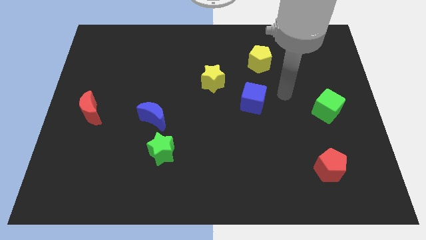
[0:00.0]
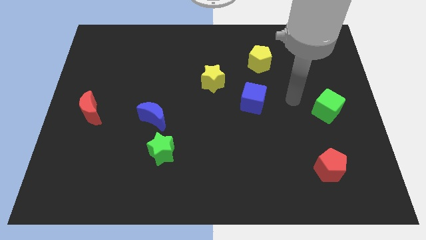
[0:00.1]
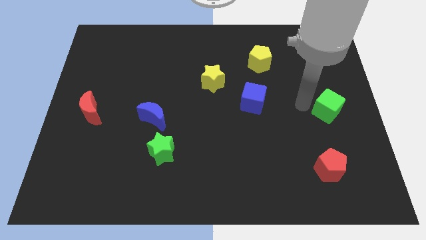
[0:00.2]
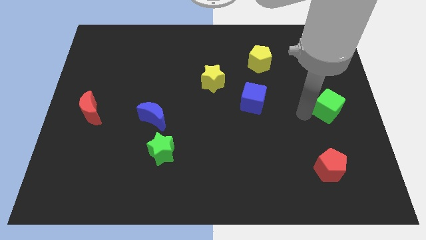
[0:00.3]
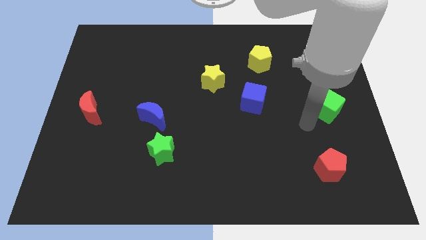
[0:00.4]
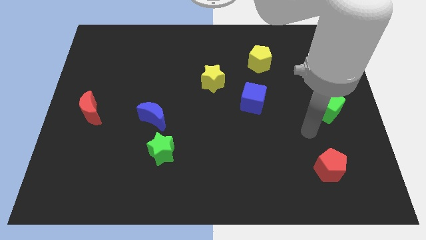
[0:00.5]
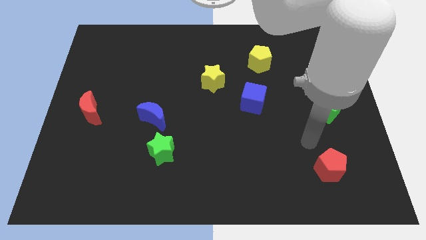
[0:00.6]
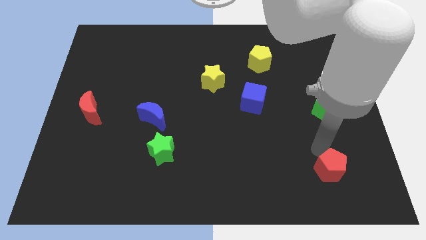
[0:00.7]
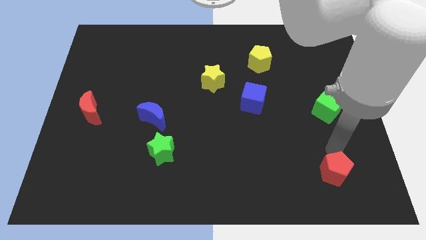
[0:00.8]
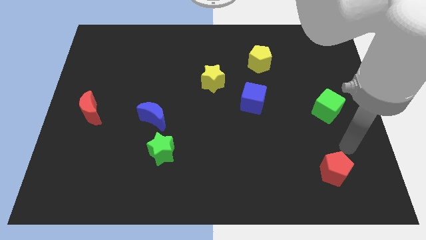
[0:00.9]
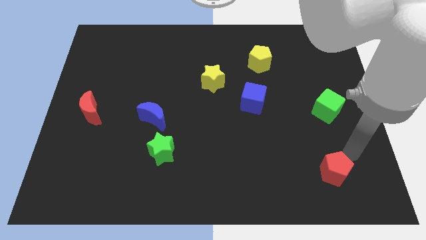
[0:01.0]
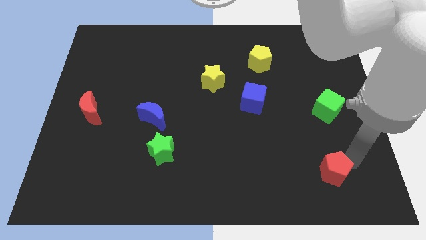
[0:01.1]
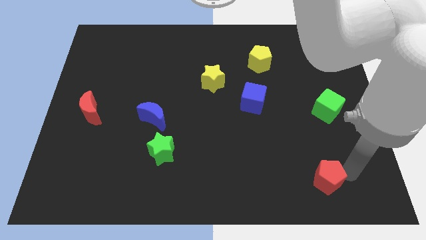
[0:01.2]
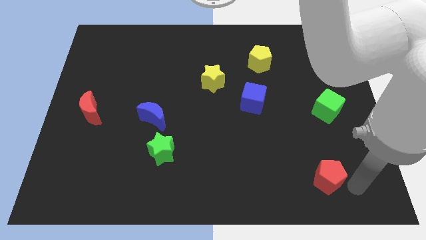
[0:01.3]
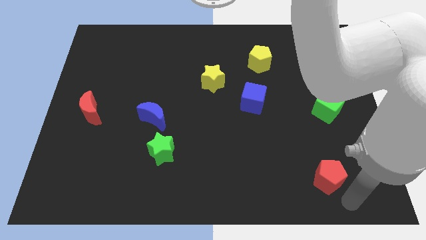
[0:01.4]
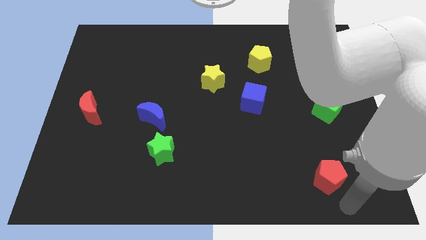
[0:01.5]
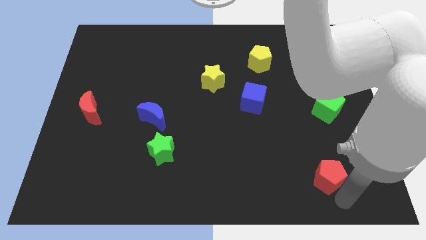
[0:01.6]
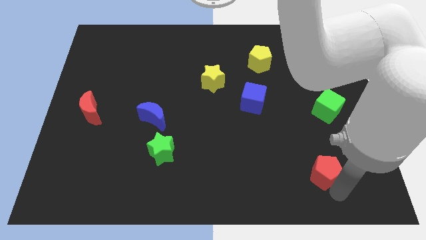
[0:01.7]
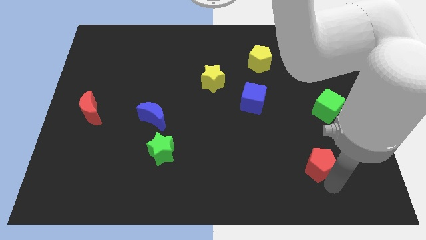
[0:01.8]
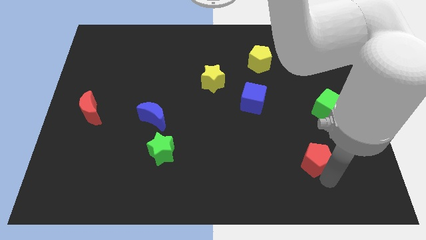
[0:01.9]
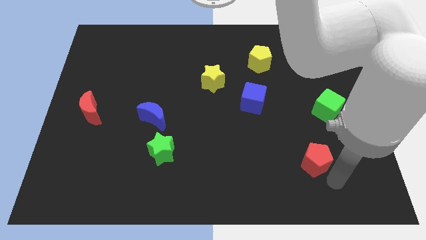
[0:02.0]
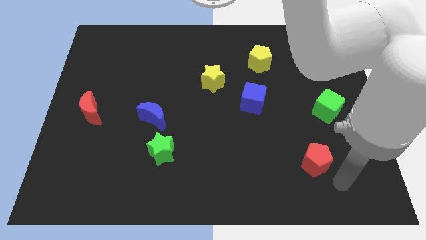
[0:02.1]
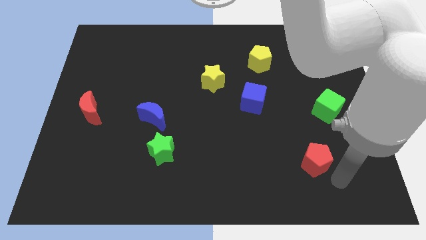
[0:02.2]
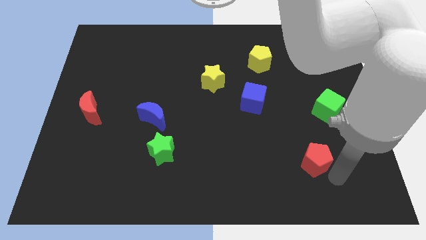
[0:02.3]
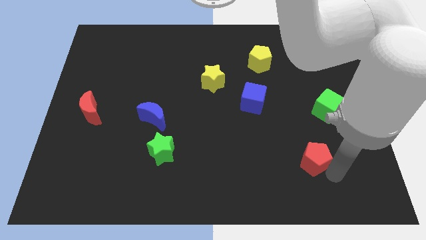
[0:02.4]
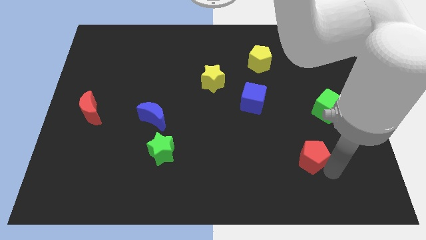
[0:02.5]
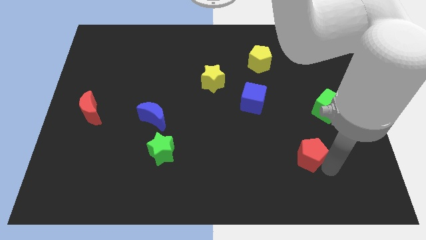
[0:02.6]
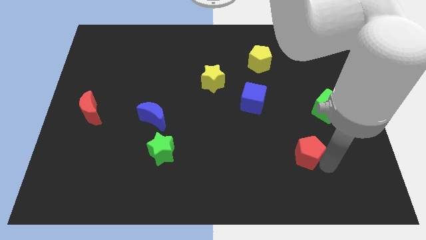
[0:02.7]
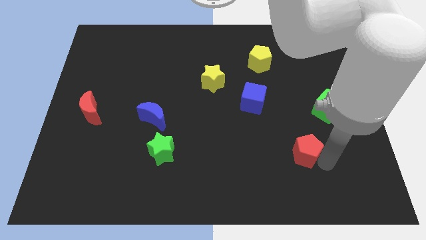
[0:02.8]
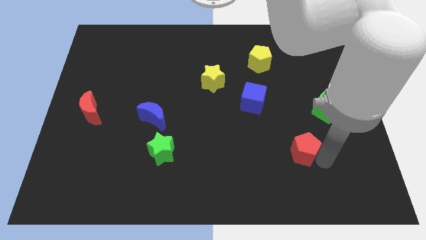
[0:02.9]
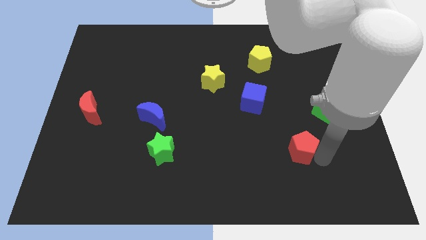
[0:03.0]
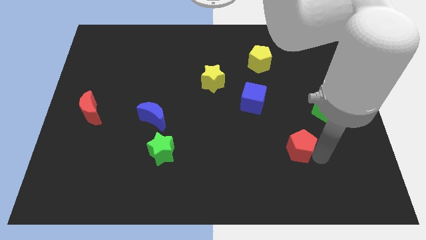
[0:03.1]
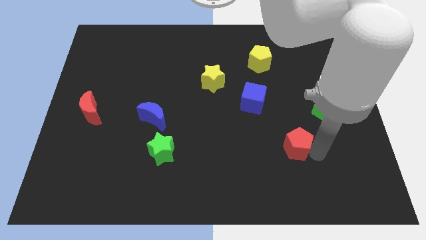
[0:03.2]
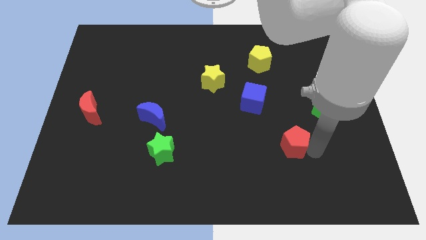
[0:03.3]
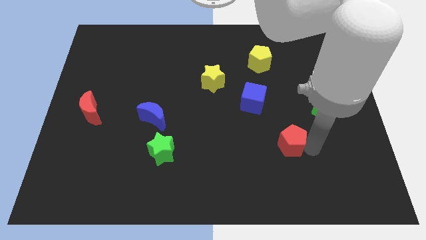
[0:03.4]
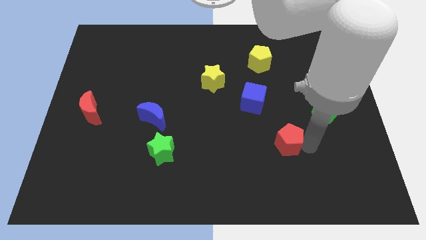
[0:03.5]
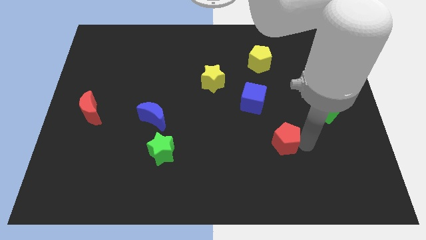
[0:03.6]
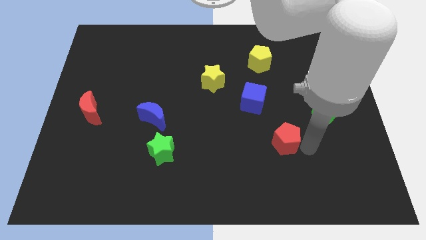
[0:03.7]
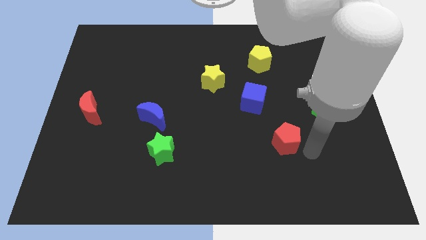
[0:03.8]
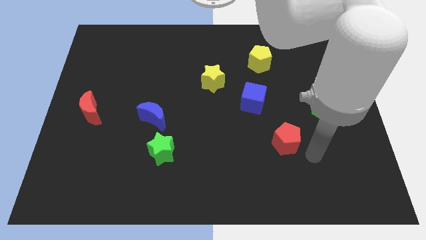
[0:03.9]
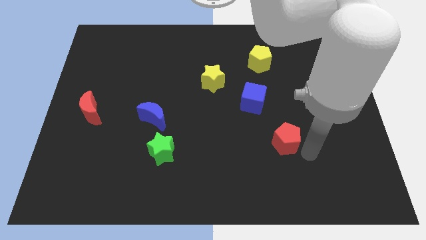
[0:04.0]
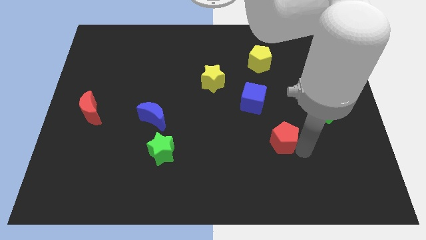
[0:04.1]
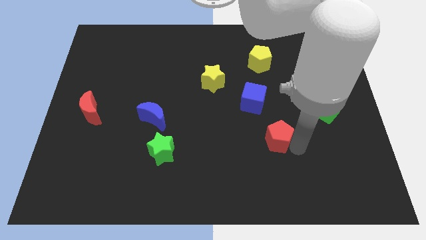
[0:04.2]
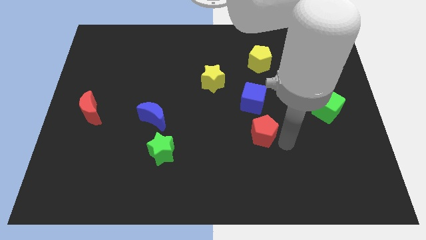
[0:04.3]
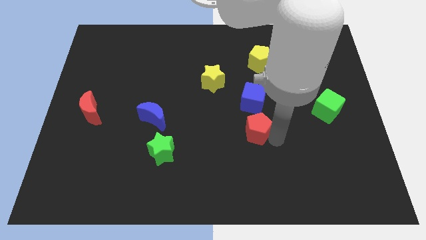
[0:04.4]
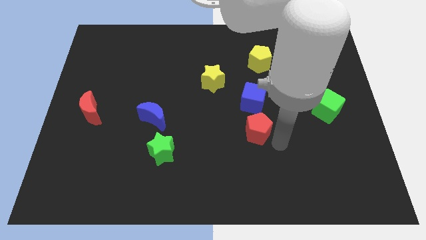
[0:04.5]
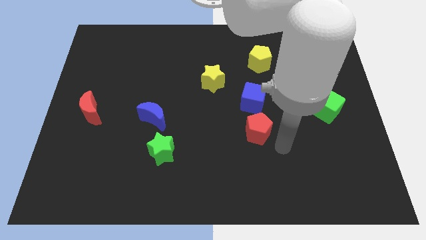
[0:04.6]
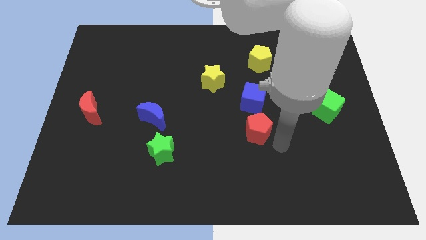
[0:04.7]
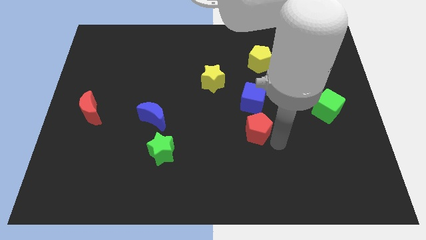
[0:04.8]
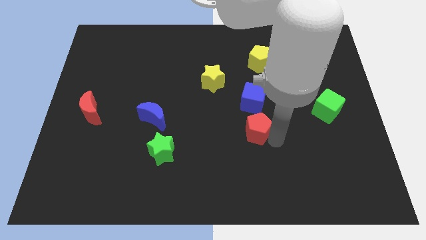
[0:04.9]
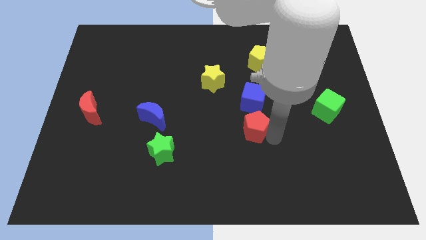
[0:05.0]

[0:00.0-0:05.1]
push the red pentagon to the middle

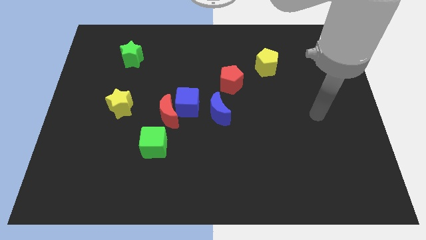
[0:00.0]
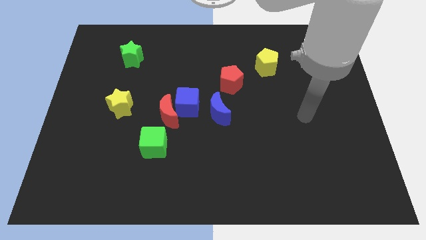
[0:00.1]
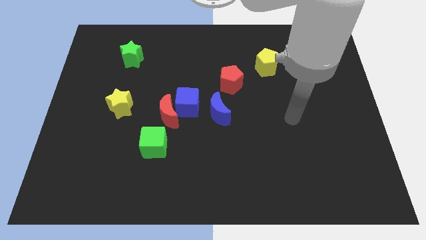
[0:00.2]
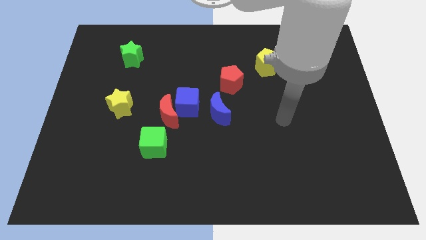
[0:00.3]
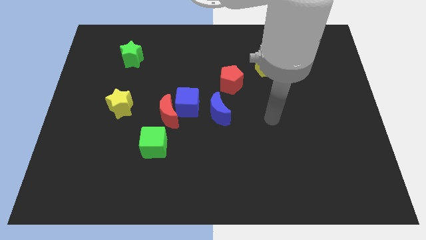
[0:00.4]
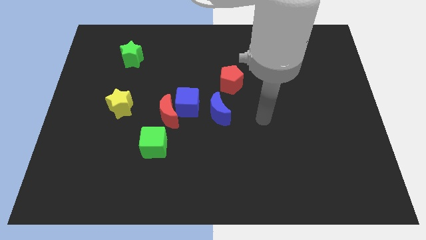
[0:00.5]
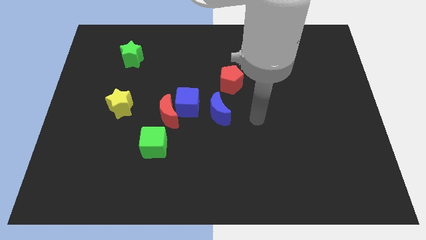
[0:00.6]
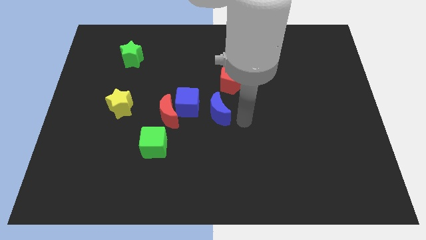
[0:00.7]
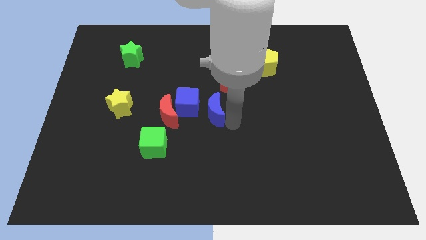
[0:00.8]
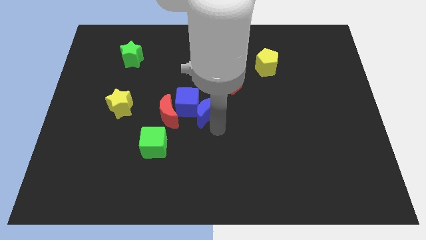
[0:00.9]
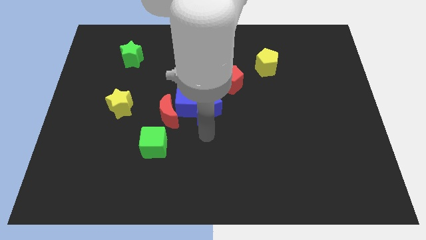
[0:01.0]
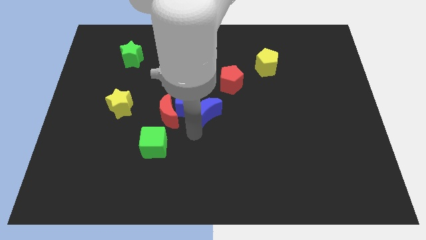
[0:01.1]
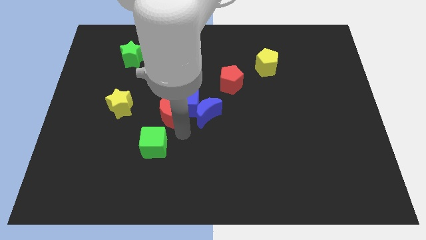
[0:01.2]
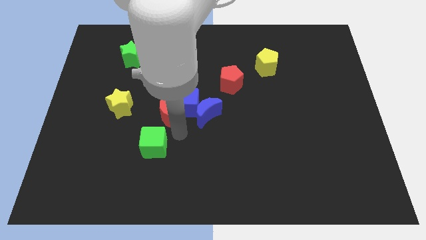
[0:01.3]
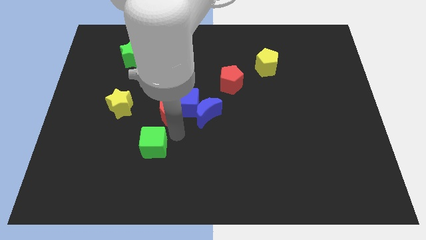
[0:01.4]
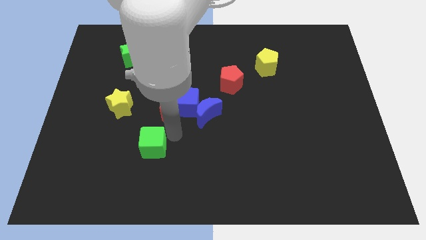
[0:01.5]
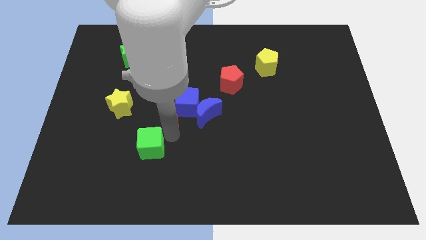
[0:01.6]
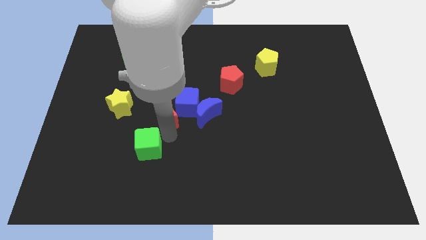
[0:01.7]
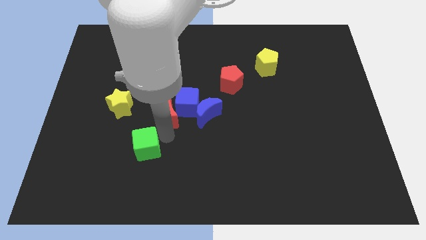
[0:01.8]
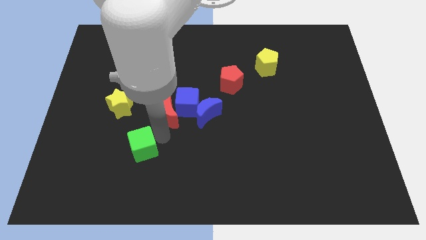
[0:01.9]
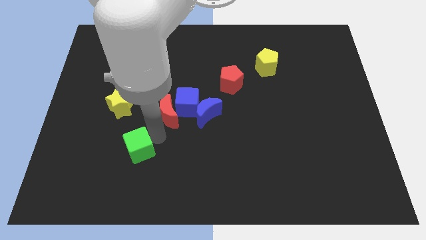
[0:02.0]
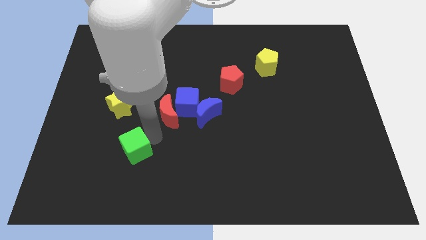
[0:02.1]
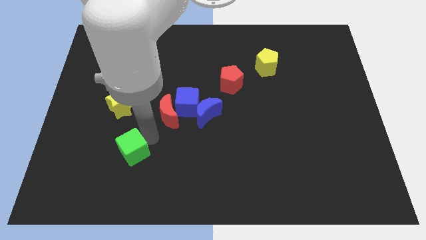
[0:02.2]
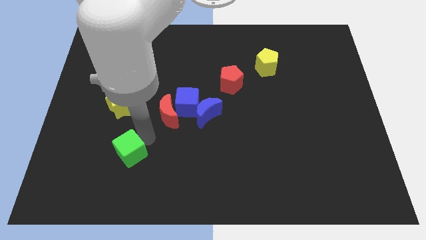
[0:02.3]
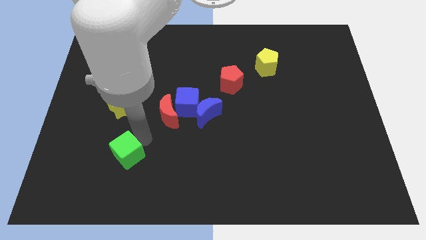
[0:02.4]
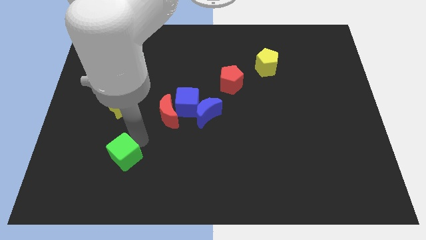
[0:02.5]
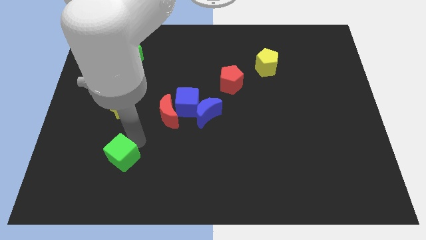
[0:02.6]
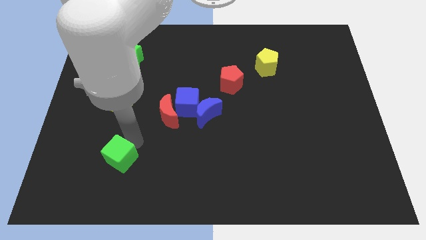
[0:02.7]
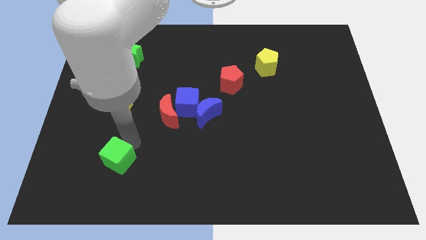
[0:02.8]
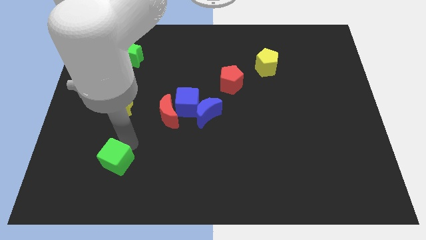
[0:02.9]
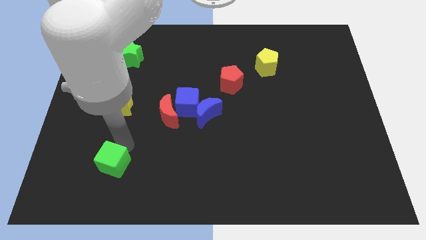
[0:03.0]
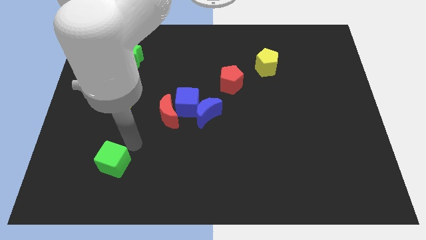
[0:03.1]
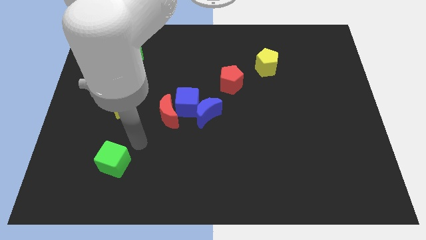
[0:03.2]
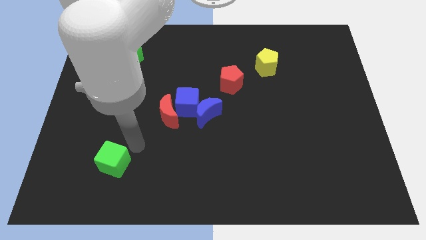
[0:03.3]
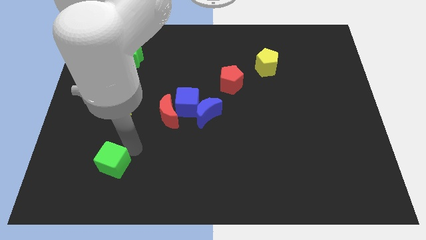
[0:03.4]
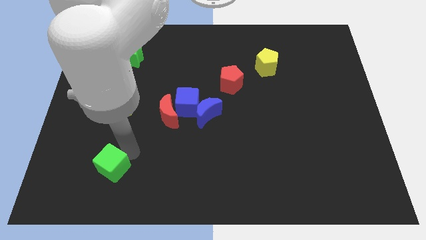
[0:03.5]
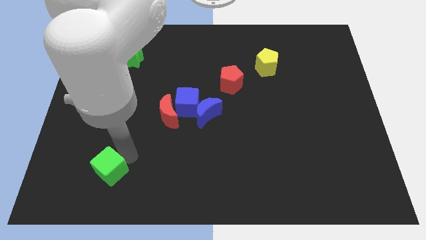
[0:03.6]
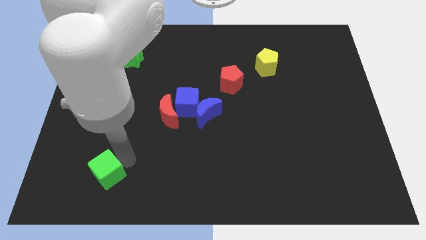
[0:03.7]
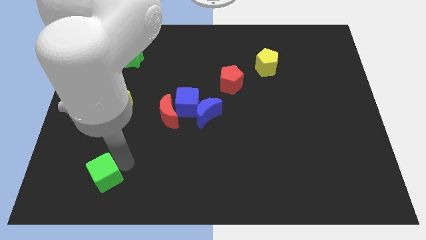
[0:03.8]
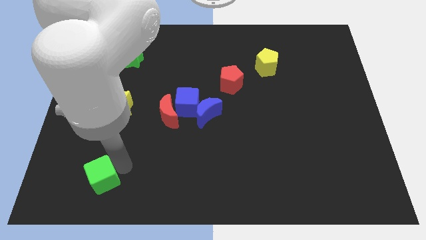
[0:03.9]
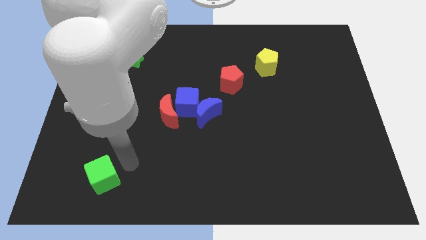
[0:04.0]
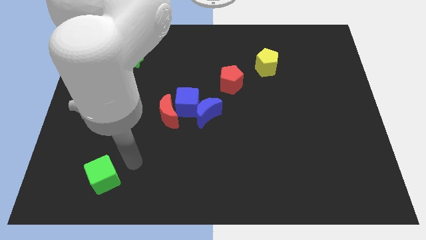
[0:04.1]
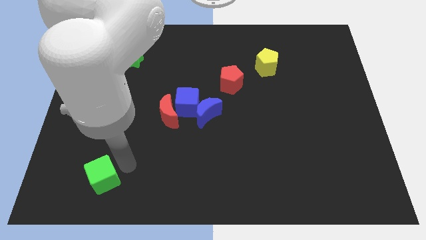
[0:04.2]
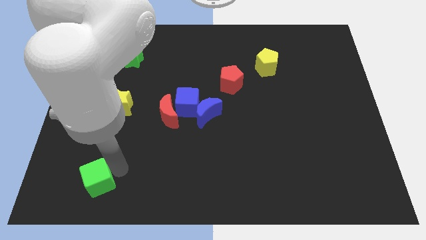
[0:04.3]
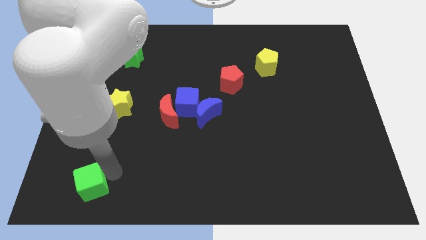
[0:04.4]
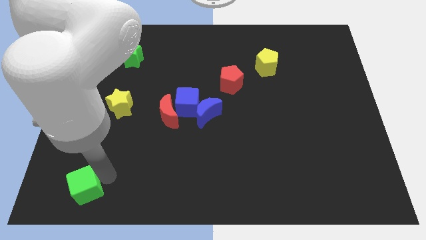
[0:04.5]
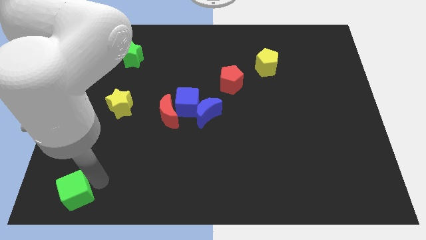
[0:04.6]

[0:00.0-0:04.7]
move the green cube to the bottom left corner
